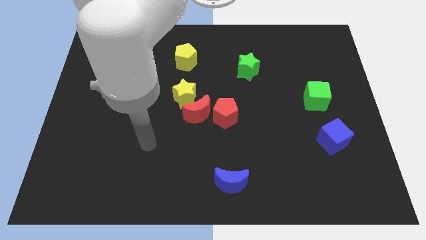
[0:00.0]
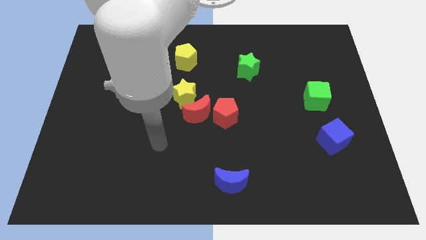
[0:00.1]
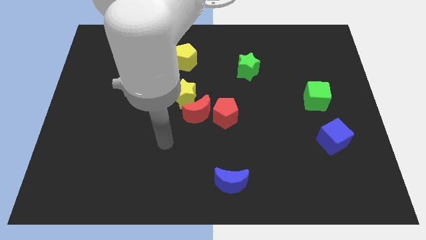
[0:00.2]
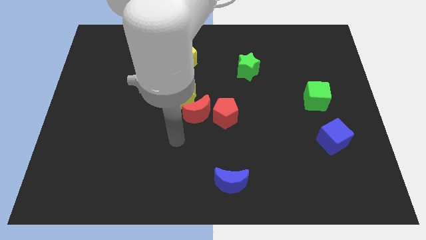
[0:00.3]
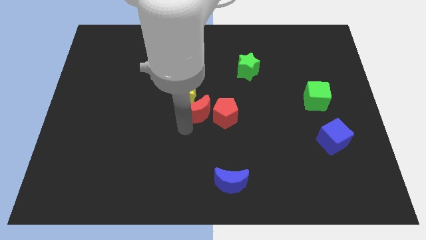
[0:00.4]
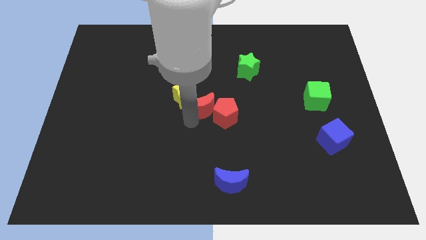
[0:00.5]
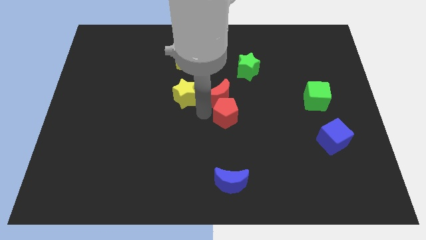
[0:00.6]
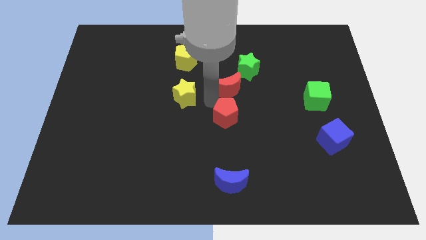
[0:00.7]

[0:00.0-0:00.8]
pull the yellow star apart from the red moon

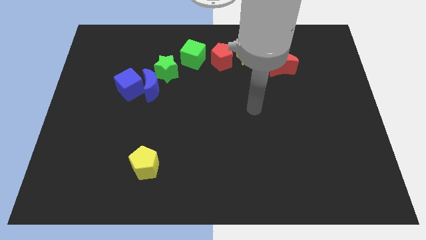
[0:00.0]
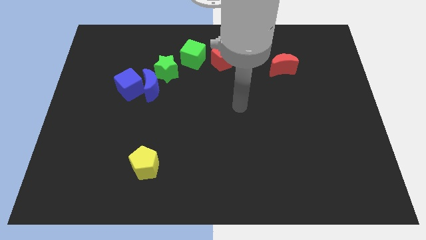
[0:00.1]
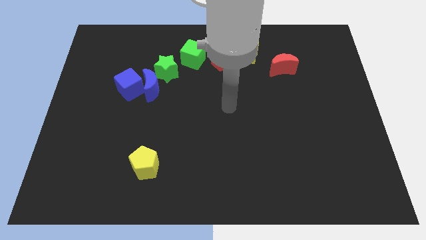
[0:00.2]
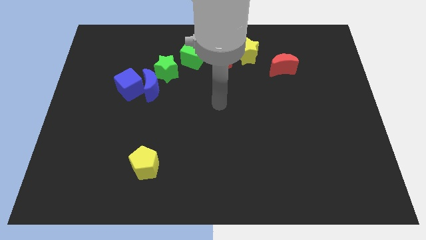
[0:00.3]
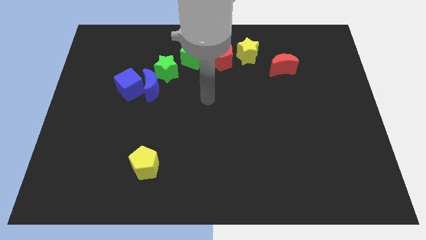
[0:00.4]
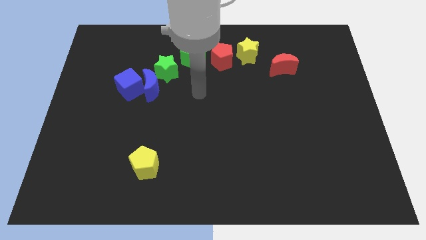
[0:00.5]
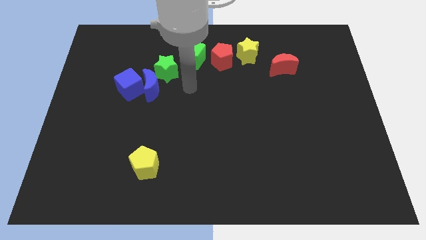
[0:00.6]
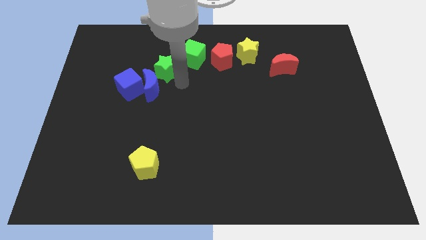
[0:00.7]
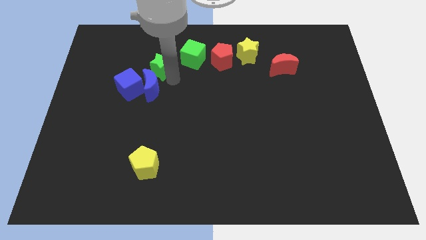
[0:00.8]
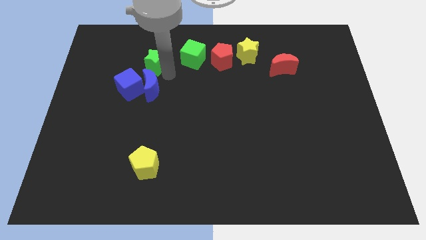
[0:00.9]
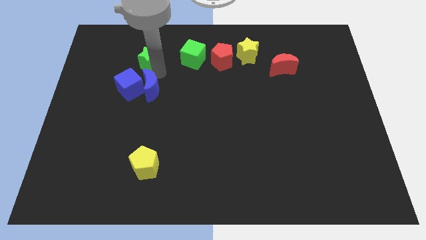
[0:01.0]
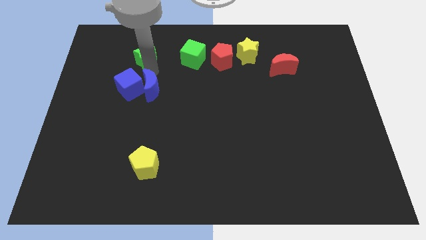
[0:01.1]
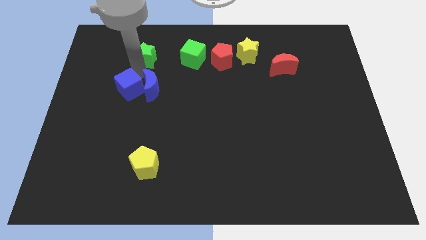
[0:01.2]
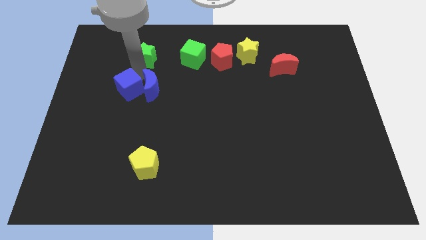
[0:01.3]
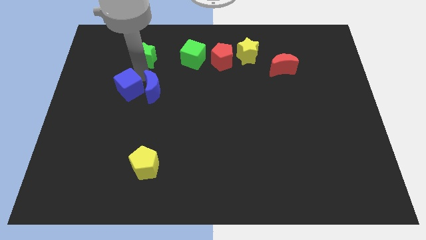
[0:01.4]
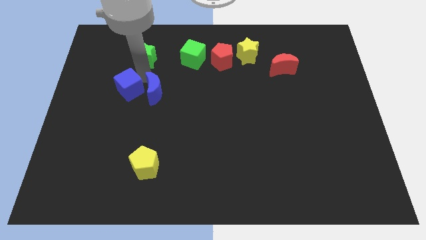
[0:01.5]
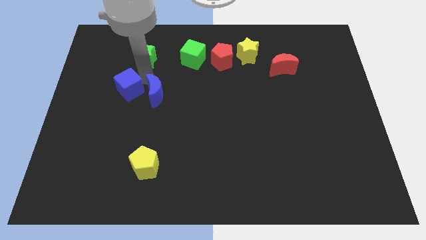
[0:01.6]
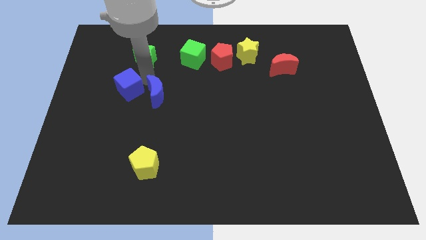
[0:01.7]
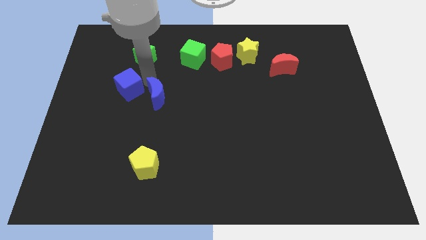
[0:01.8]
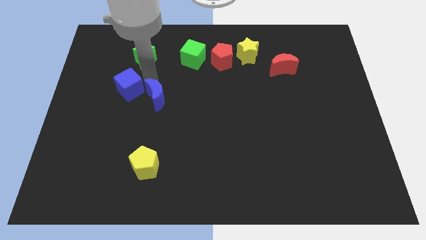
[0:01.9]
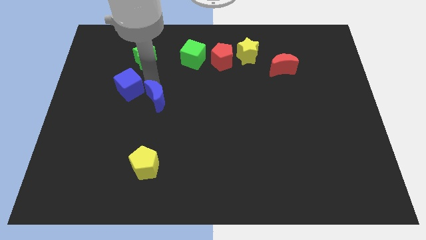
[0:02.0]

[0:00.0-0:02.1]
pull the blue moon apart from the blue cube and green star

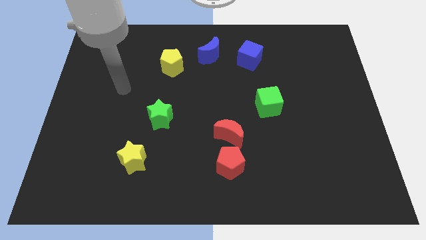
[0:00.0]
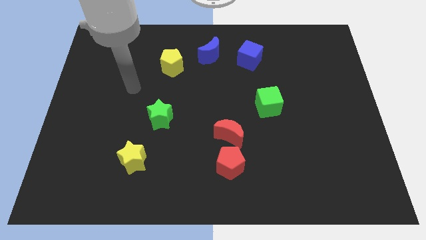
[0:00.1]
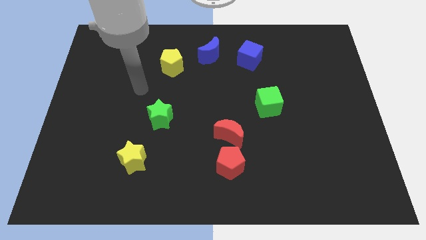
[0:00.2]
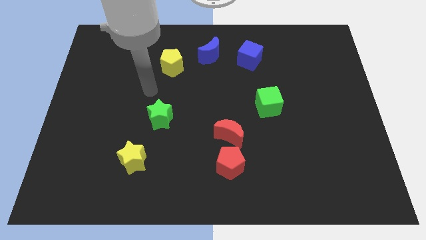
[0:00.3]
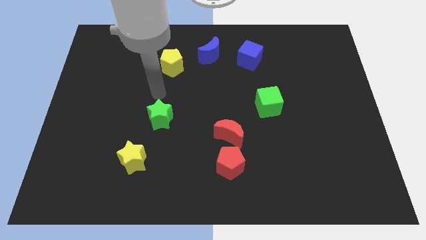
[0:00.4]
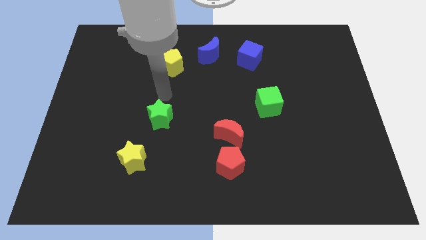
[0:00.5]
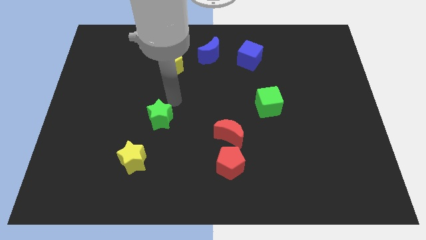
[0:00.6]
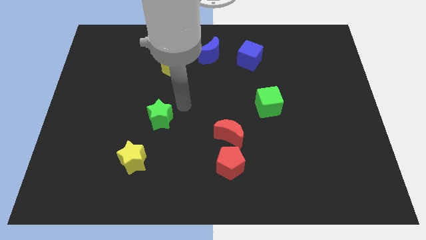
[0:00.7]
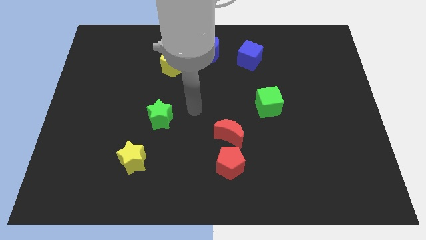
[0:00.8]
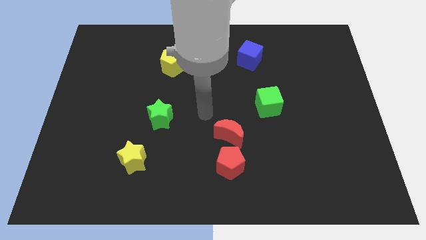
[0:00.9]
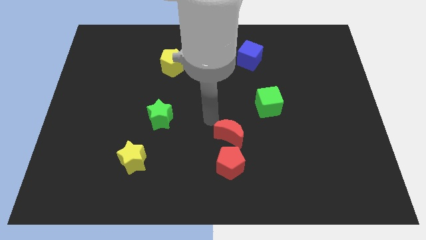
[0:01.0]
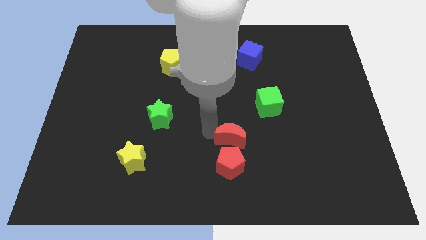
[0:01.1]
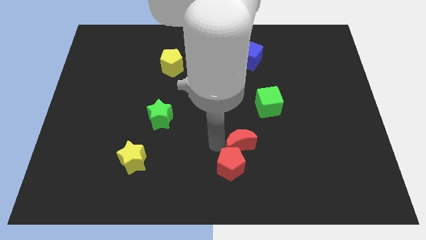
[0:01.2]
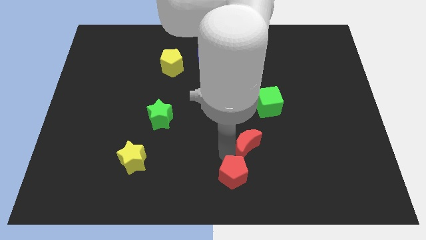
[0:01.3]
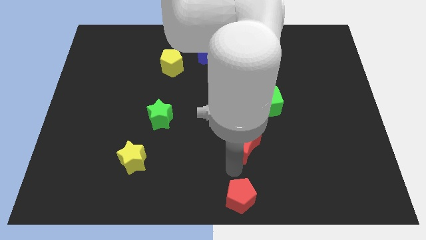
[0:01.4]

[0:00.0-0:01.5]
separate the red moon from the red pentagon

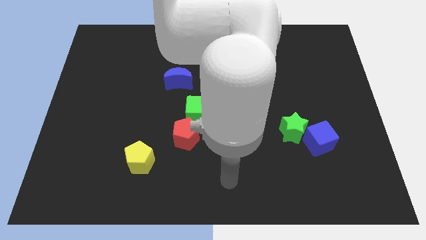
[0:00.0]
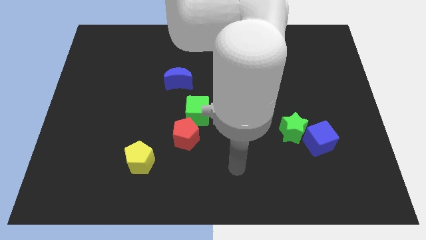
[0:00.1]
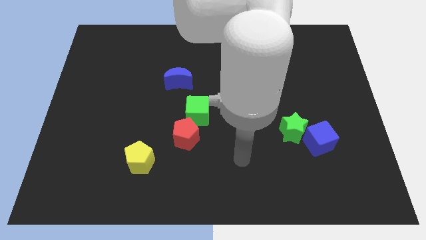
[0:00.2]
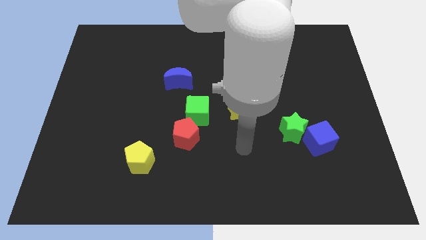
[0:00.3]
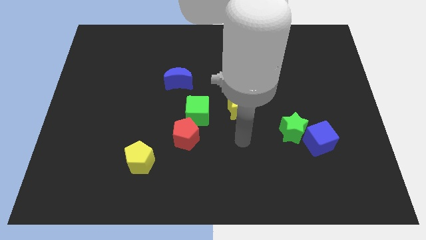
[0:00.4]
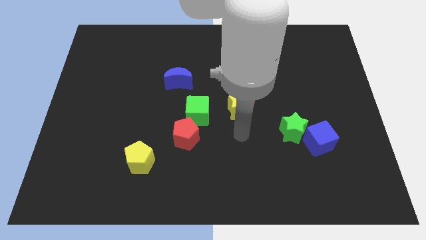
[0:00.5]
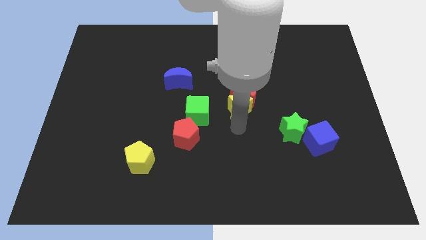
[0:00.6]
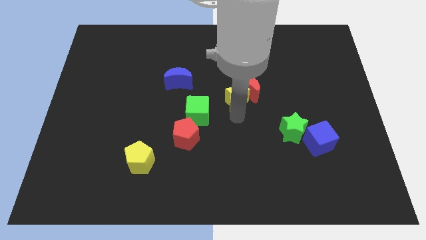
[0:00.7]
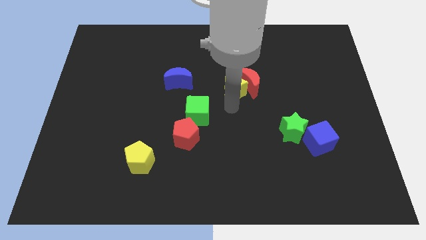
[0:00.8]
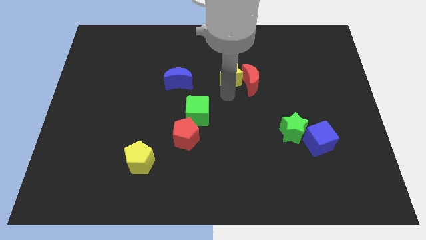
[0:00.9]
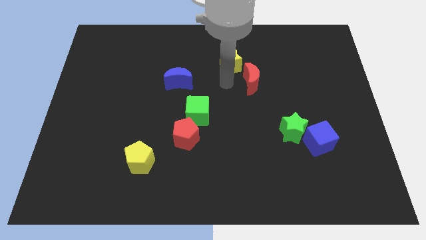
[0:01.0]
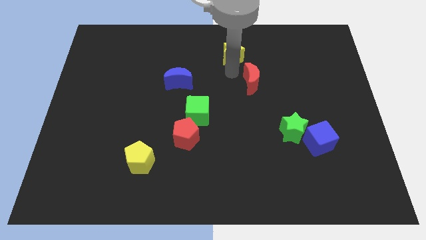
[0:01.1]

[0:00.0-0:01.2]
separate the red moon from the yellow star

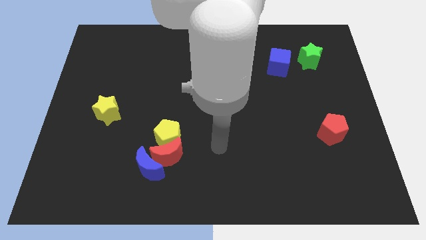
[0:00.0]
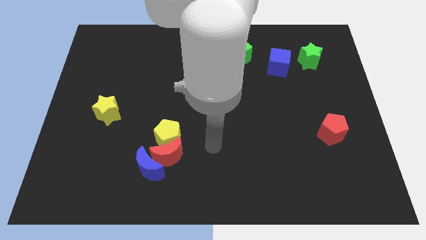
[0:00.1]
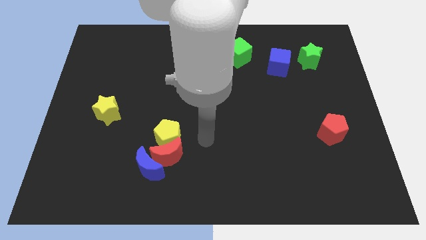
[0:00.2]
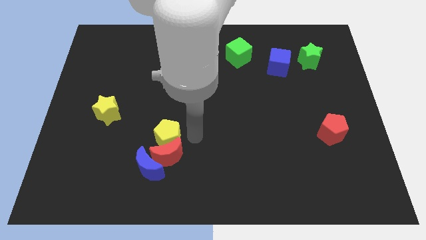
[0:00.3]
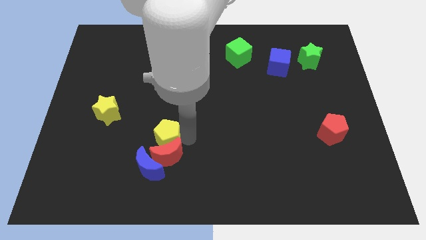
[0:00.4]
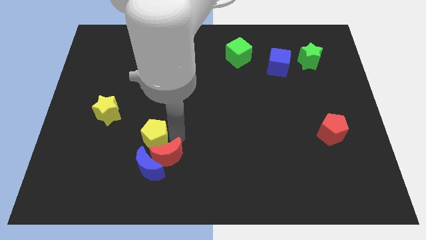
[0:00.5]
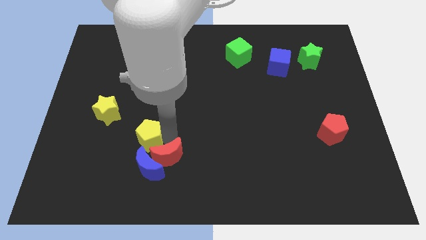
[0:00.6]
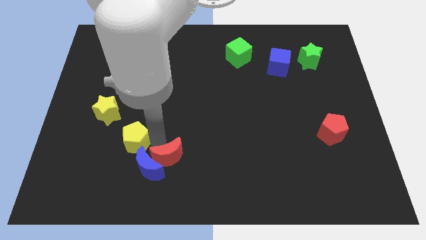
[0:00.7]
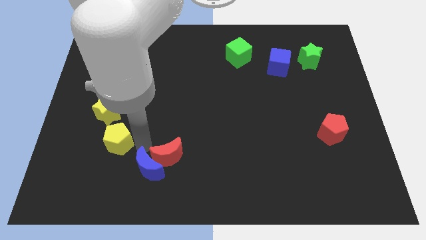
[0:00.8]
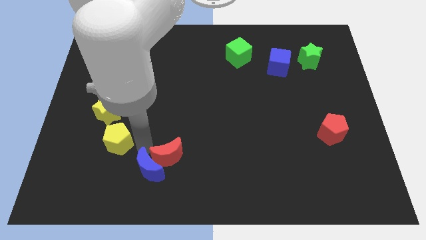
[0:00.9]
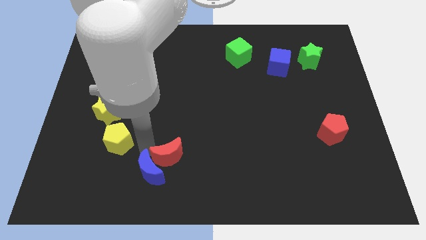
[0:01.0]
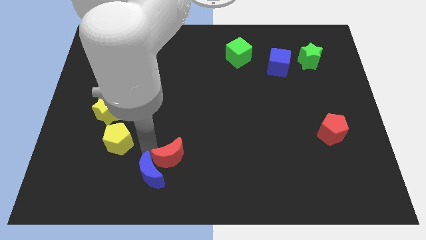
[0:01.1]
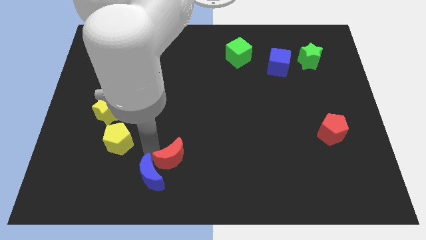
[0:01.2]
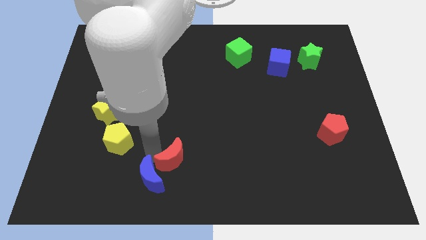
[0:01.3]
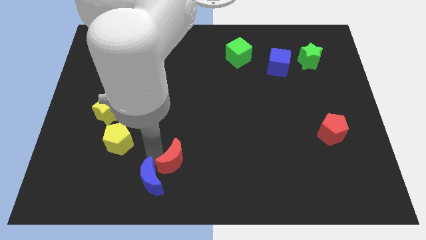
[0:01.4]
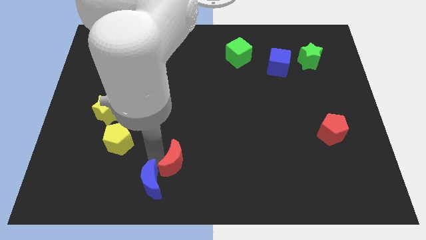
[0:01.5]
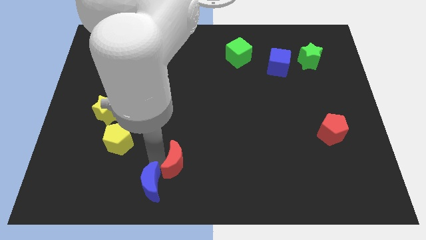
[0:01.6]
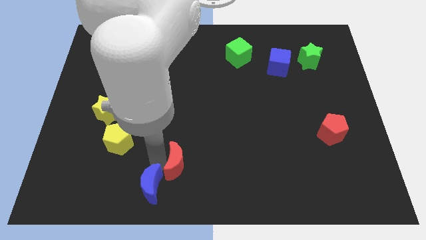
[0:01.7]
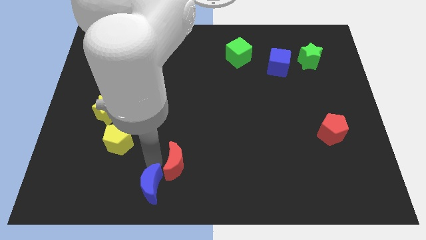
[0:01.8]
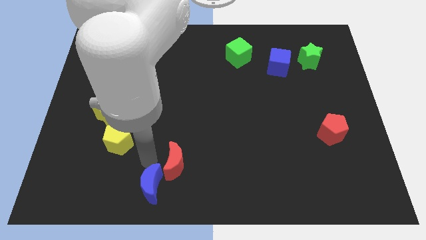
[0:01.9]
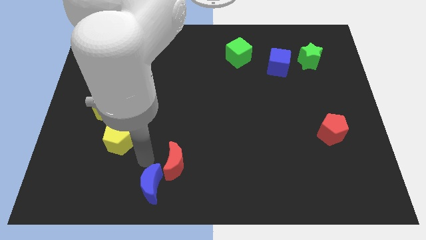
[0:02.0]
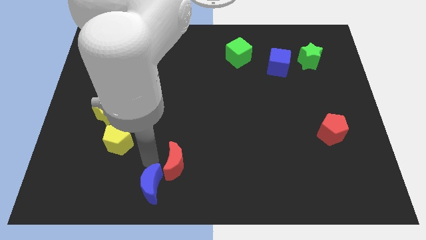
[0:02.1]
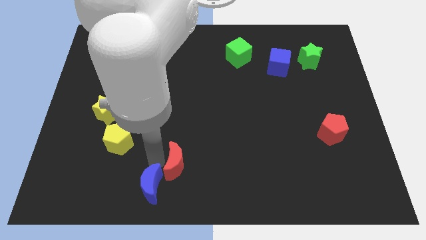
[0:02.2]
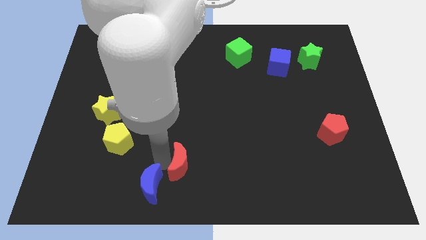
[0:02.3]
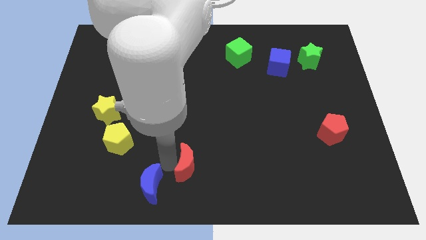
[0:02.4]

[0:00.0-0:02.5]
separate the red moon from the yellow pentagon and blue moon

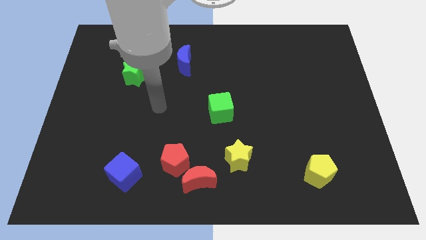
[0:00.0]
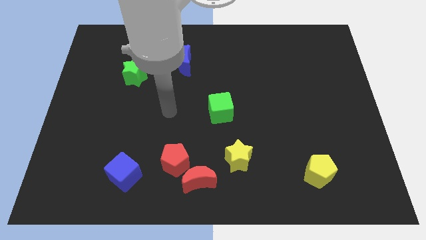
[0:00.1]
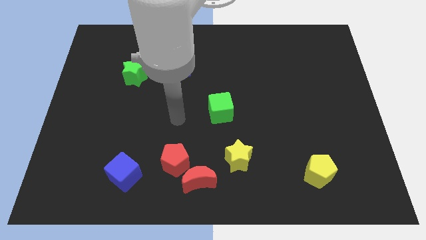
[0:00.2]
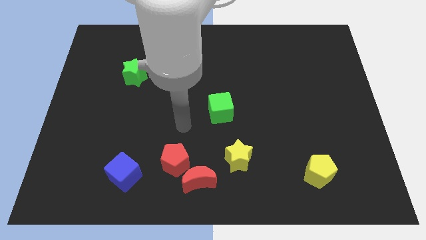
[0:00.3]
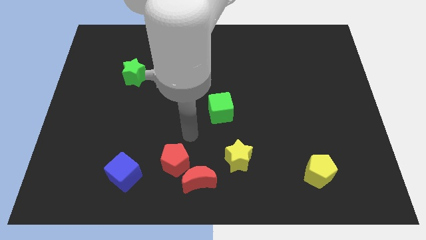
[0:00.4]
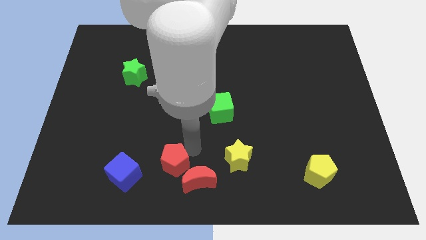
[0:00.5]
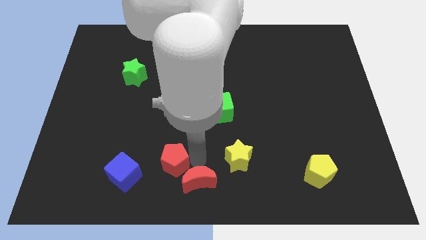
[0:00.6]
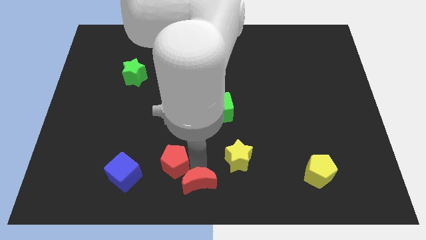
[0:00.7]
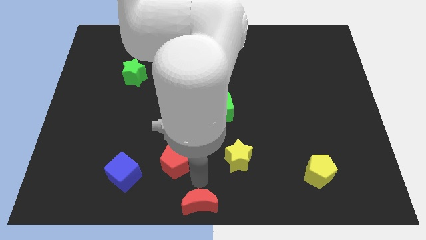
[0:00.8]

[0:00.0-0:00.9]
move the red pentagon away from the red moon

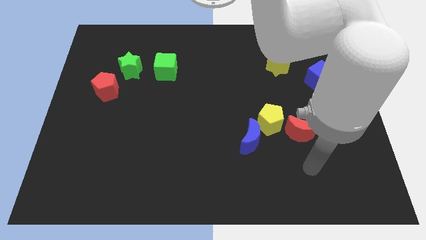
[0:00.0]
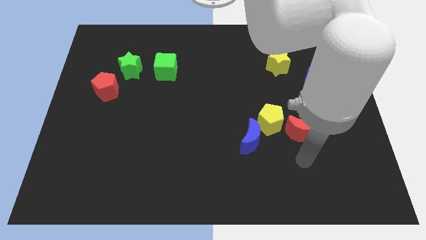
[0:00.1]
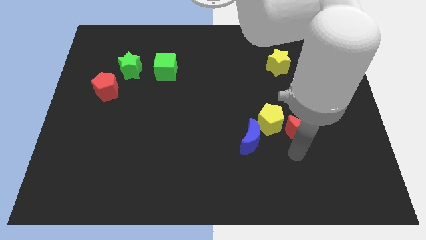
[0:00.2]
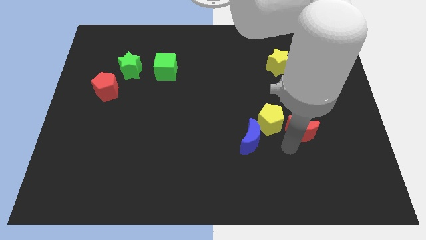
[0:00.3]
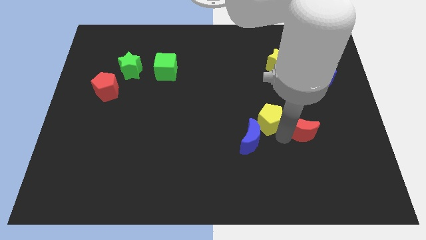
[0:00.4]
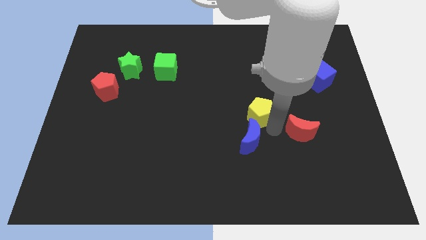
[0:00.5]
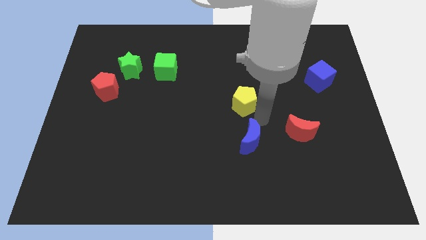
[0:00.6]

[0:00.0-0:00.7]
move the blue moon away from the yellow pentagon
